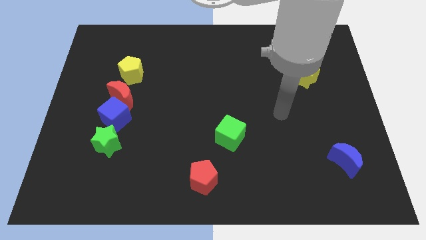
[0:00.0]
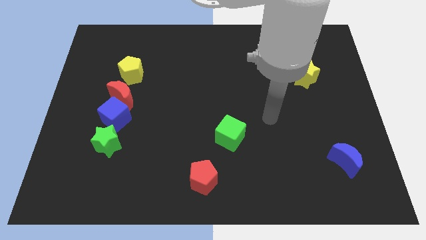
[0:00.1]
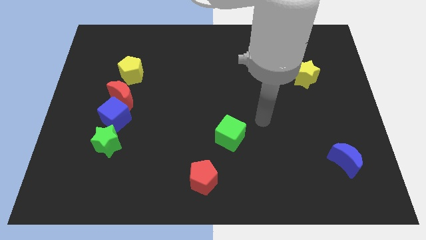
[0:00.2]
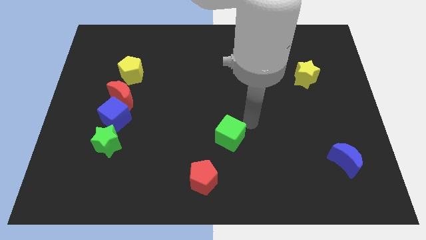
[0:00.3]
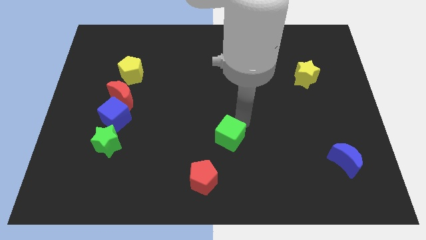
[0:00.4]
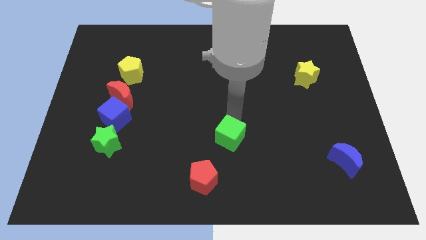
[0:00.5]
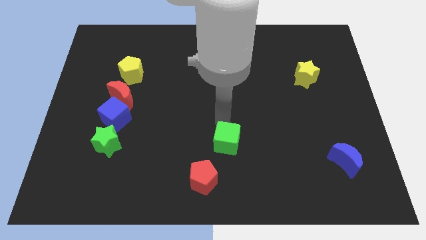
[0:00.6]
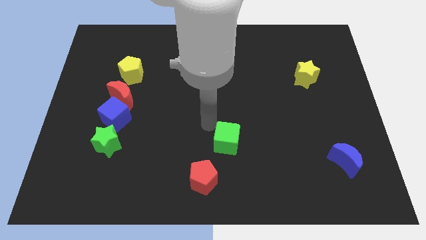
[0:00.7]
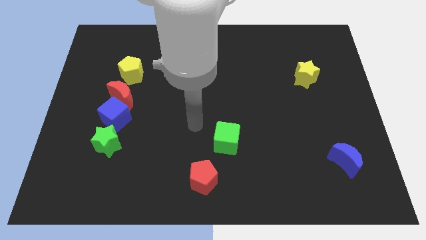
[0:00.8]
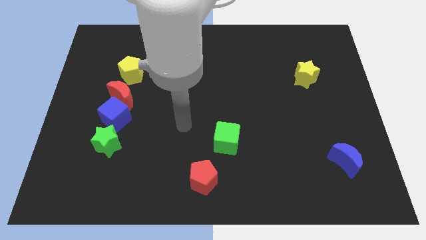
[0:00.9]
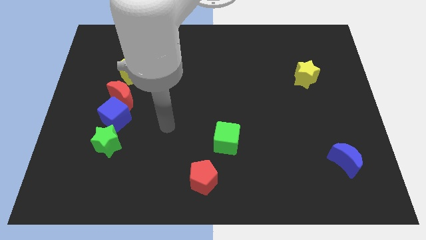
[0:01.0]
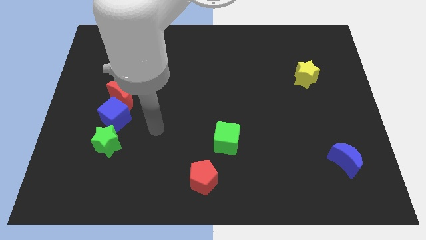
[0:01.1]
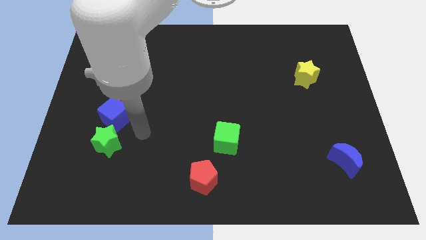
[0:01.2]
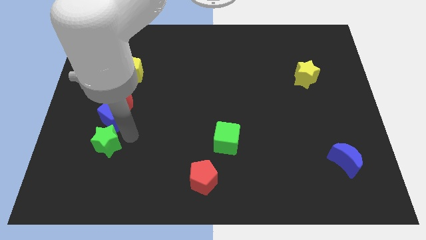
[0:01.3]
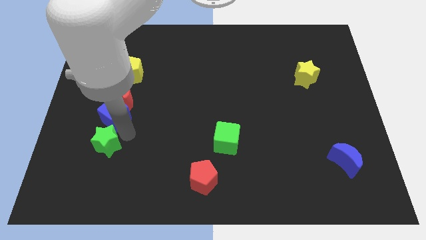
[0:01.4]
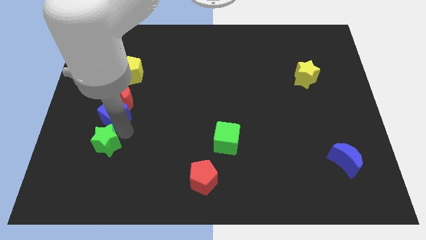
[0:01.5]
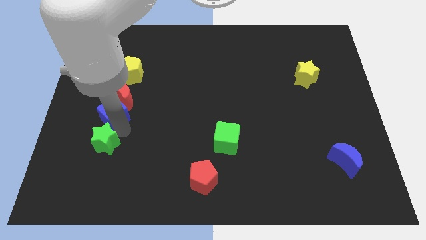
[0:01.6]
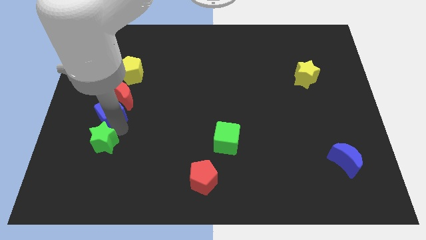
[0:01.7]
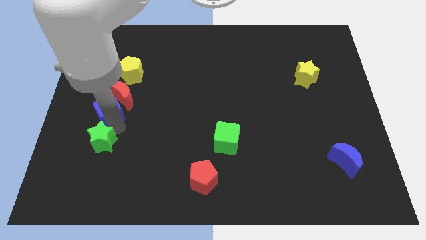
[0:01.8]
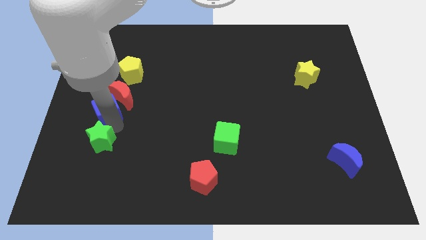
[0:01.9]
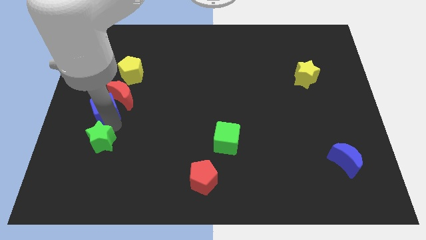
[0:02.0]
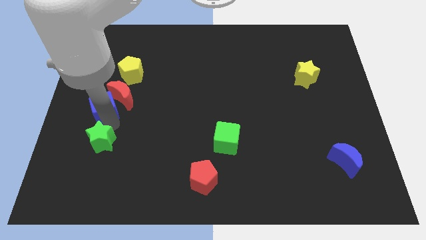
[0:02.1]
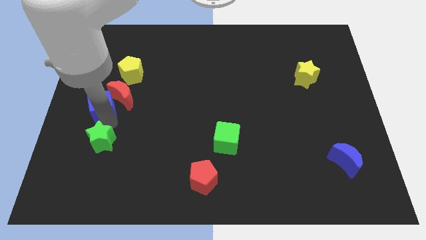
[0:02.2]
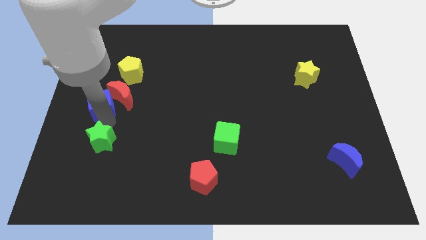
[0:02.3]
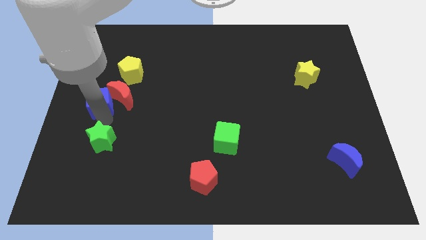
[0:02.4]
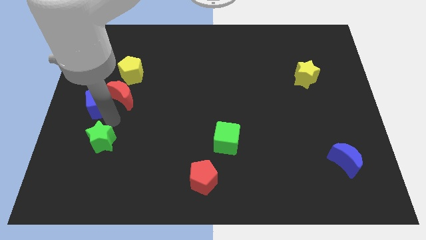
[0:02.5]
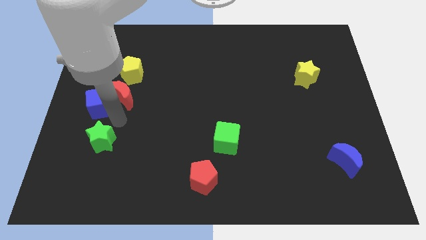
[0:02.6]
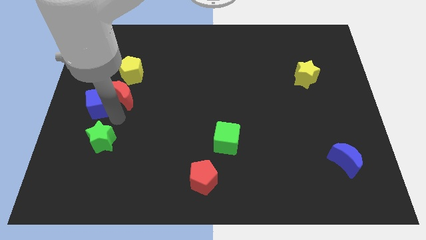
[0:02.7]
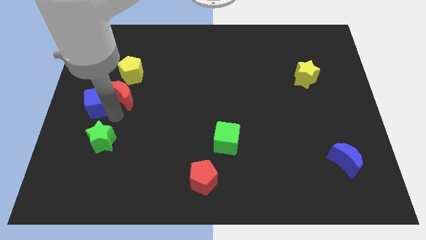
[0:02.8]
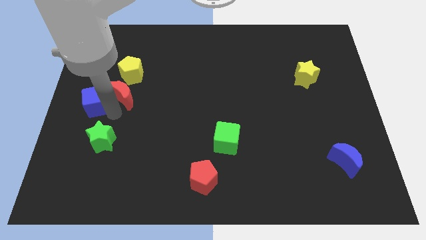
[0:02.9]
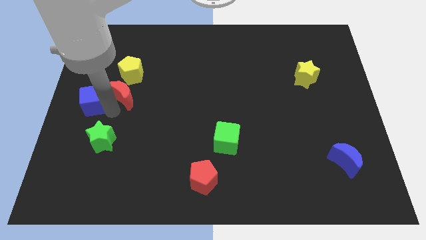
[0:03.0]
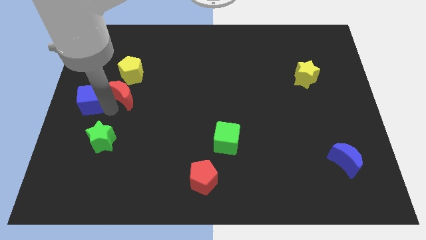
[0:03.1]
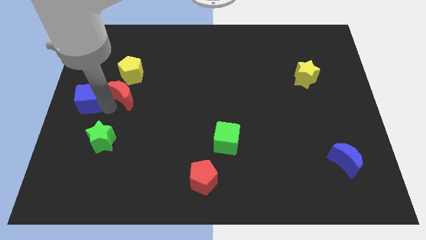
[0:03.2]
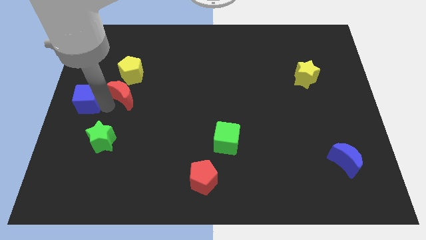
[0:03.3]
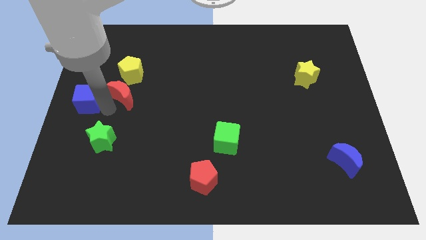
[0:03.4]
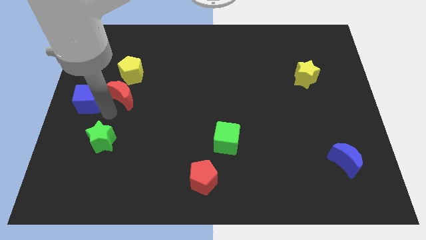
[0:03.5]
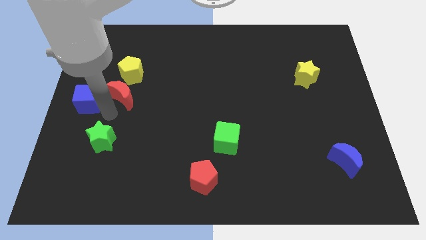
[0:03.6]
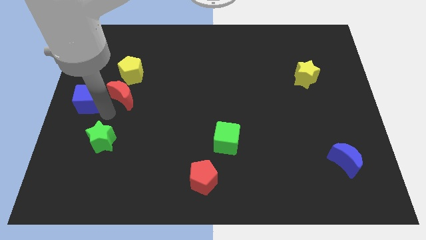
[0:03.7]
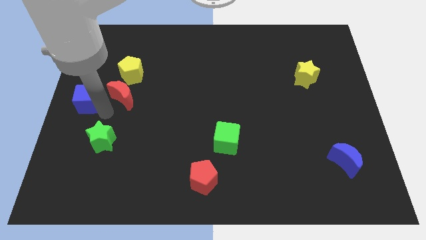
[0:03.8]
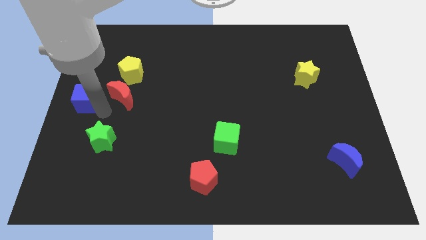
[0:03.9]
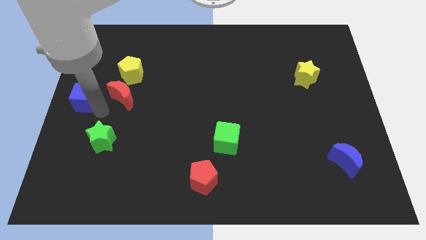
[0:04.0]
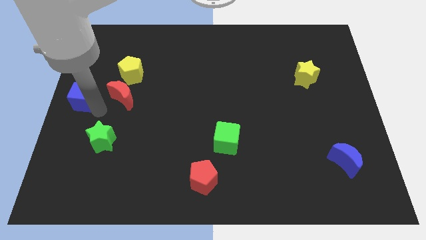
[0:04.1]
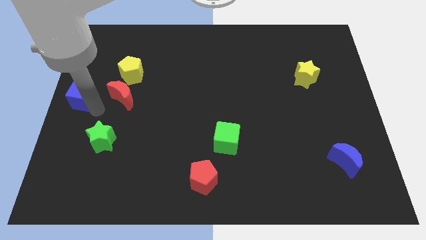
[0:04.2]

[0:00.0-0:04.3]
move the blue cube away from the red moon and green star

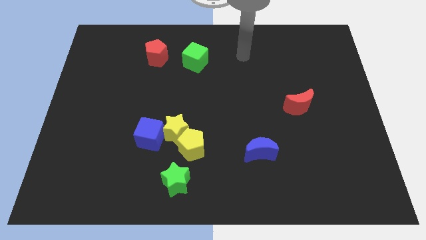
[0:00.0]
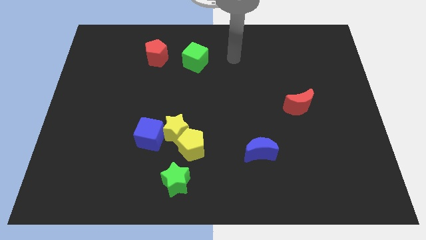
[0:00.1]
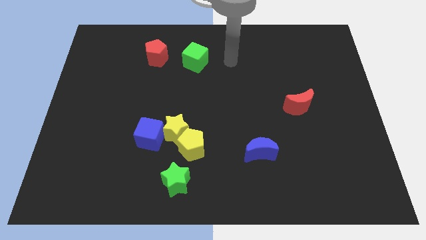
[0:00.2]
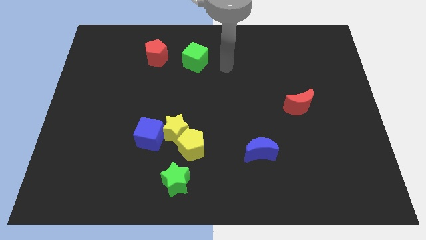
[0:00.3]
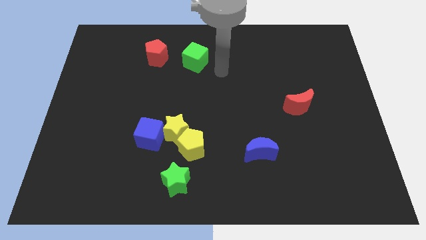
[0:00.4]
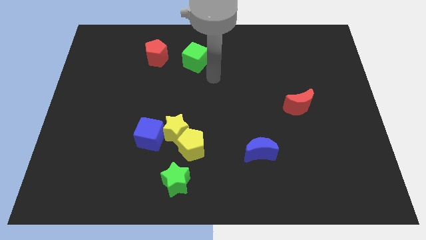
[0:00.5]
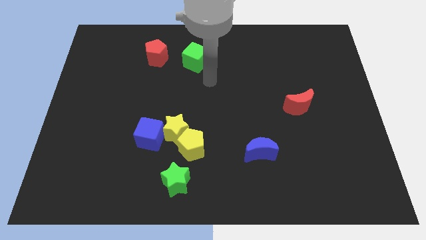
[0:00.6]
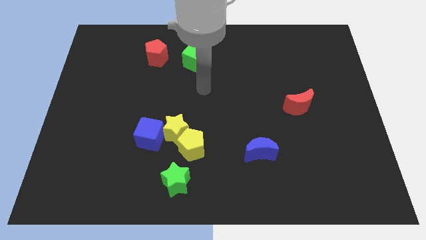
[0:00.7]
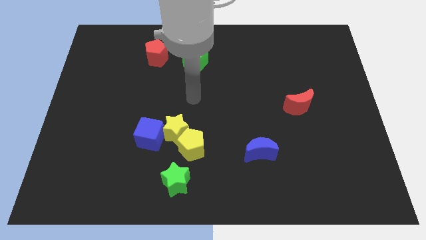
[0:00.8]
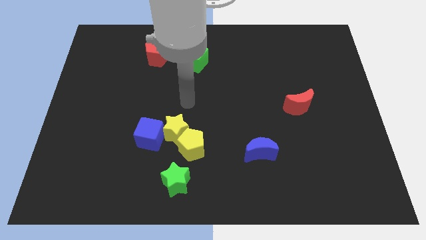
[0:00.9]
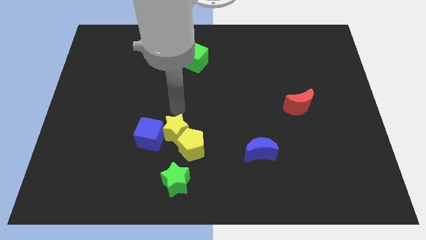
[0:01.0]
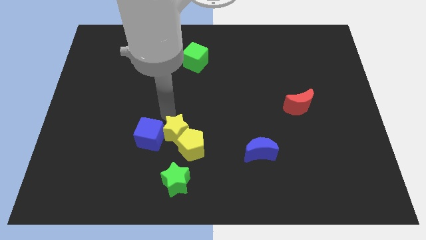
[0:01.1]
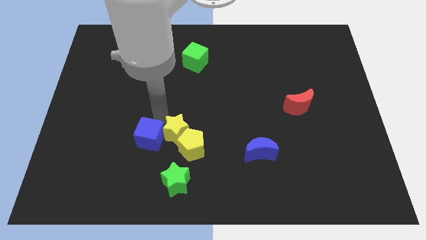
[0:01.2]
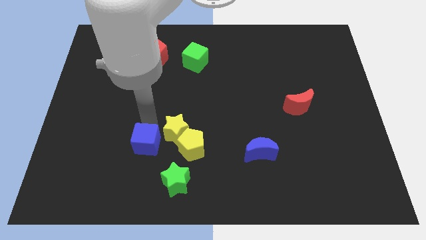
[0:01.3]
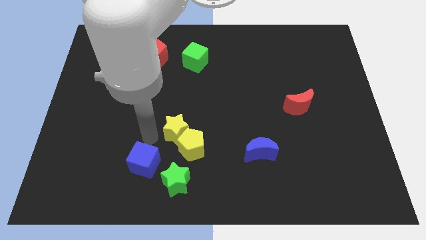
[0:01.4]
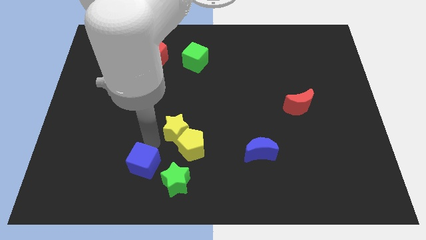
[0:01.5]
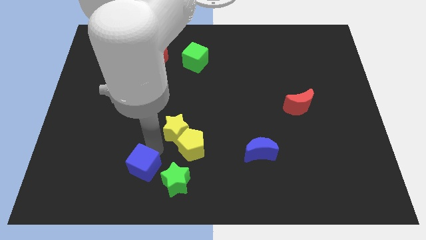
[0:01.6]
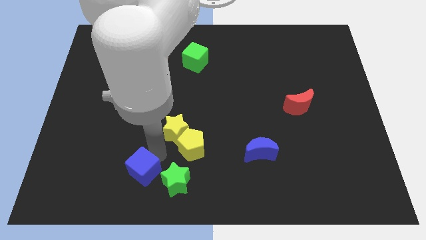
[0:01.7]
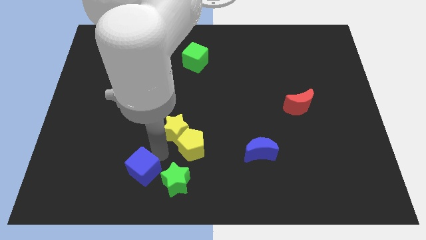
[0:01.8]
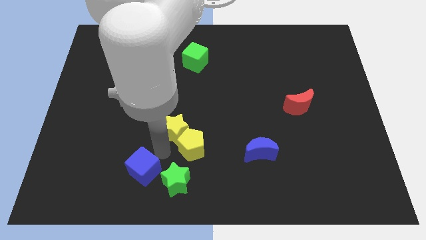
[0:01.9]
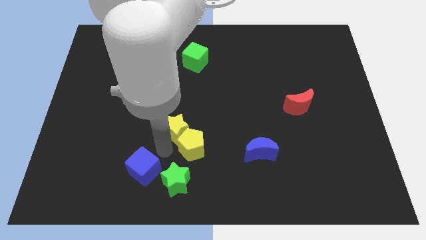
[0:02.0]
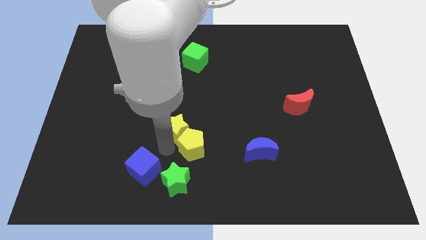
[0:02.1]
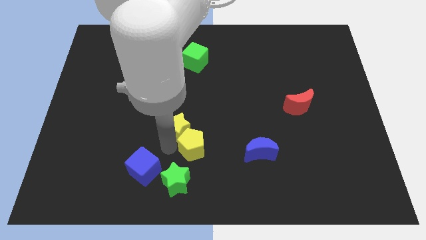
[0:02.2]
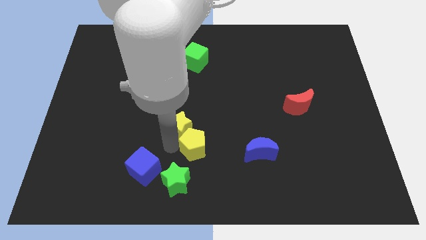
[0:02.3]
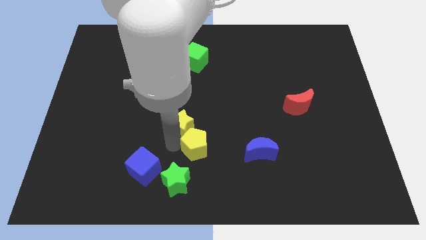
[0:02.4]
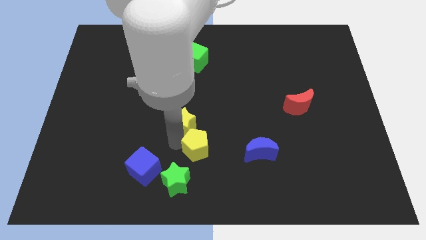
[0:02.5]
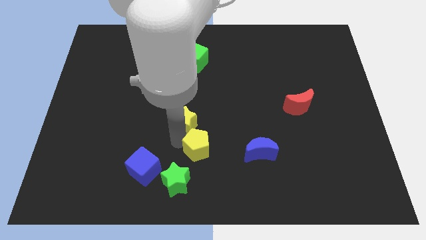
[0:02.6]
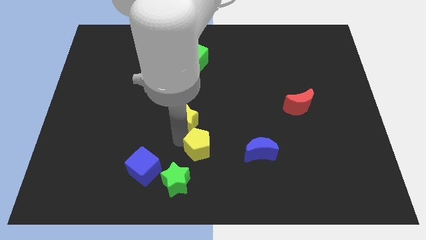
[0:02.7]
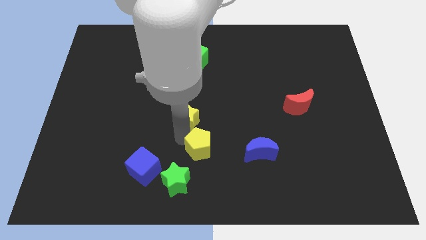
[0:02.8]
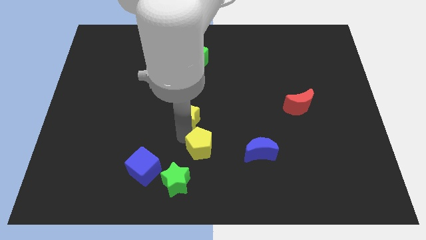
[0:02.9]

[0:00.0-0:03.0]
separate the yellow star from the yellow pentagon and blue cube

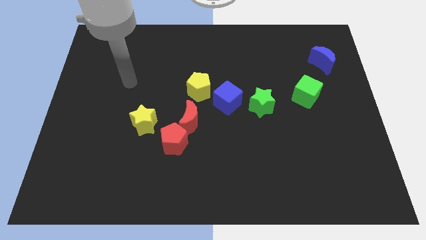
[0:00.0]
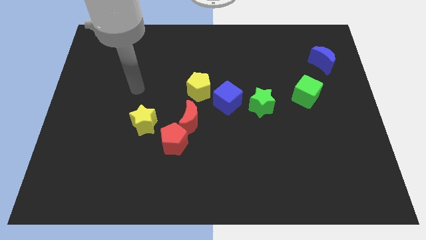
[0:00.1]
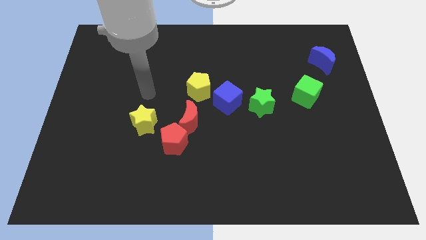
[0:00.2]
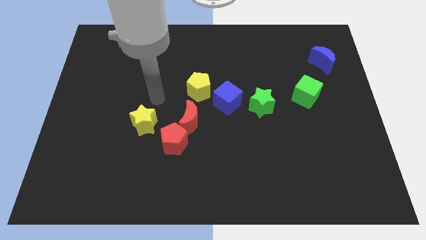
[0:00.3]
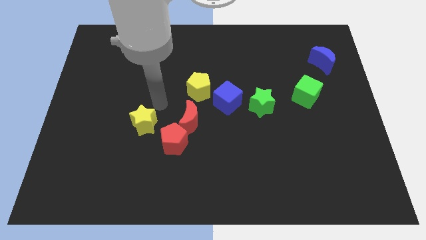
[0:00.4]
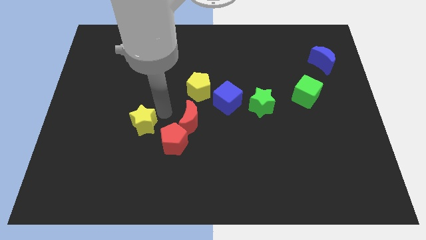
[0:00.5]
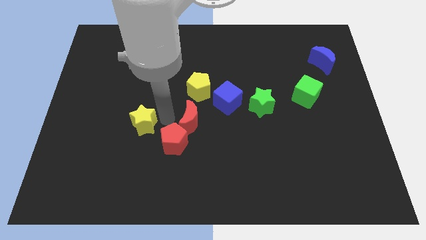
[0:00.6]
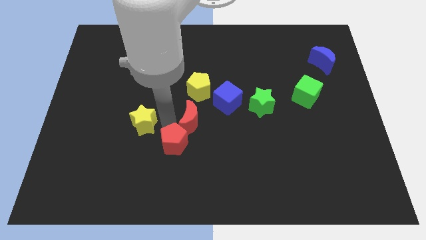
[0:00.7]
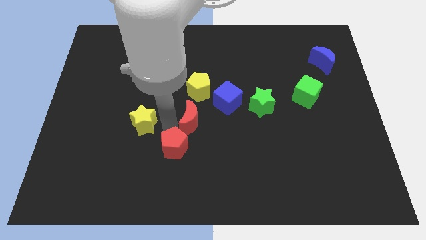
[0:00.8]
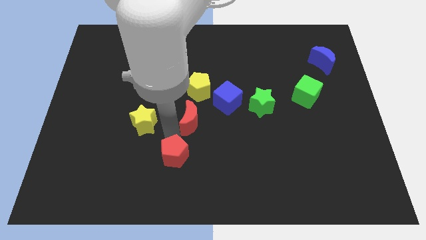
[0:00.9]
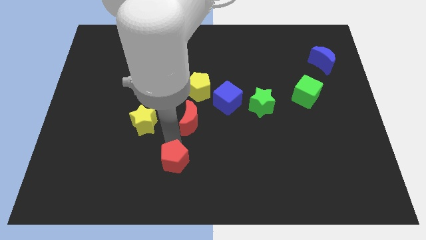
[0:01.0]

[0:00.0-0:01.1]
pull the red pentagon apart from the red moon and yellow star

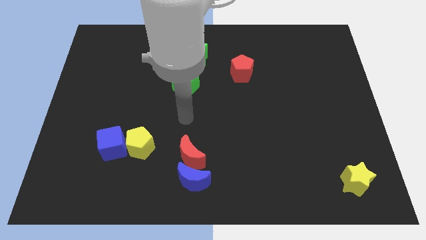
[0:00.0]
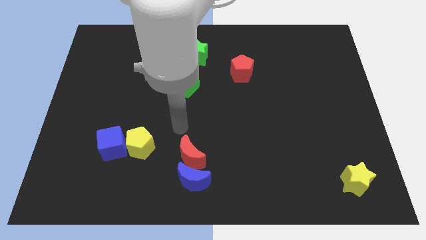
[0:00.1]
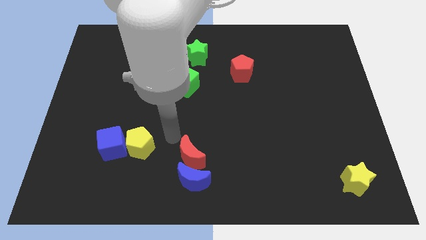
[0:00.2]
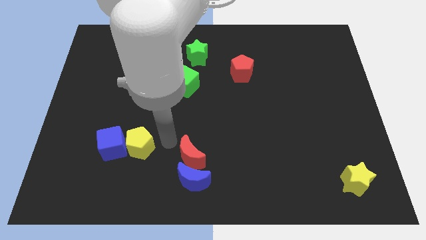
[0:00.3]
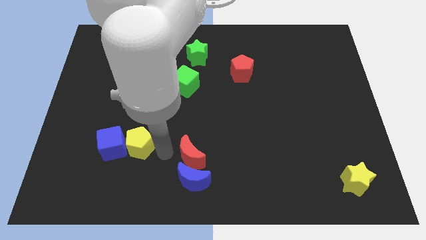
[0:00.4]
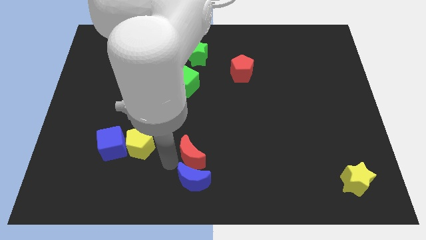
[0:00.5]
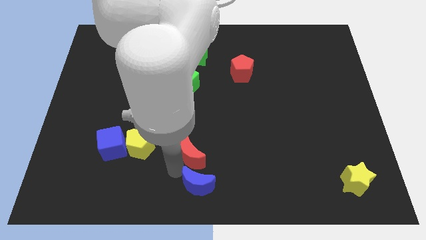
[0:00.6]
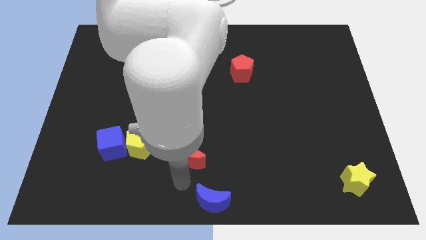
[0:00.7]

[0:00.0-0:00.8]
move the red moon away from the blue moon

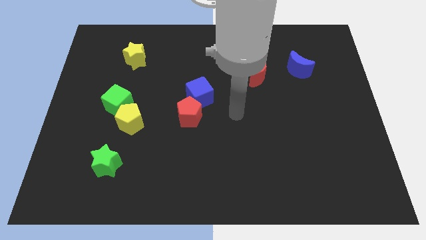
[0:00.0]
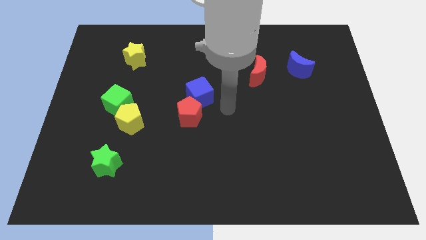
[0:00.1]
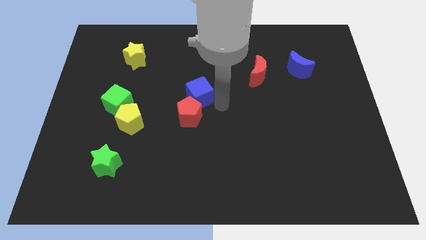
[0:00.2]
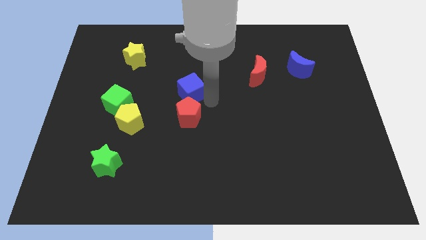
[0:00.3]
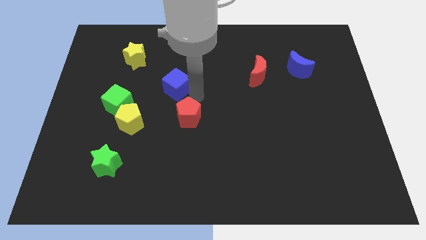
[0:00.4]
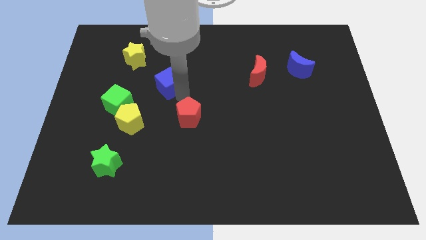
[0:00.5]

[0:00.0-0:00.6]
move the red pentagon away from the blue cube
